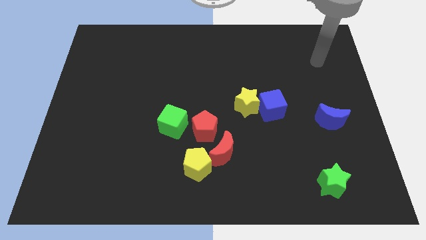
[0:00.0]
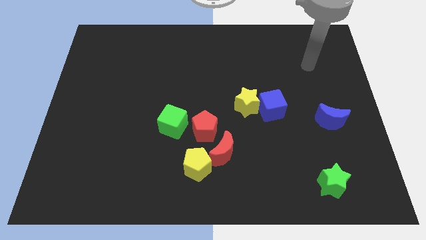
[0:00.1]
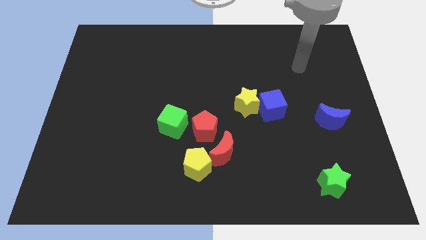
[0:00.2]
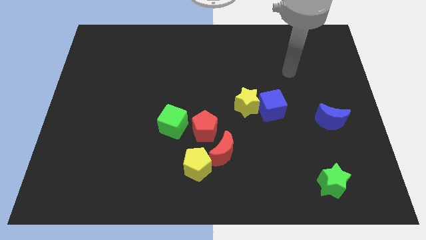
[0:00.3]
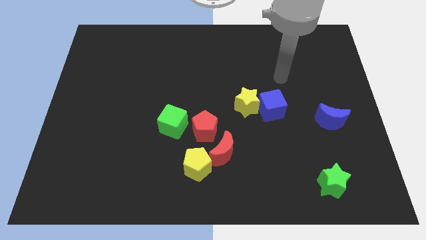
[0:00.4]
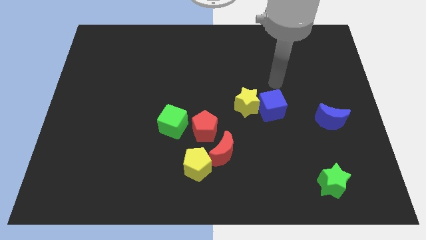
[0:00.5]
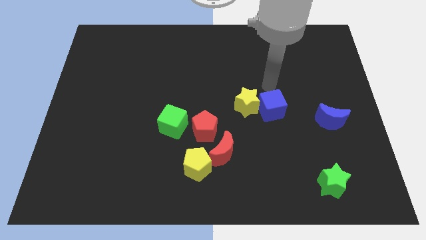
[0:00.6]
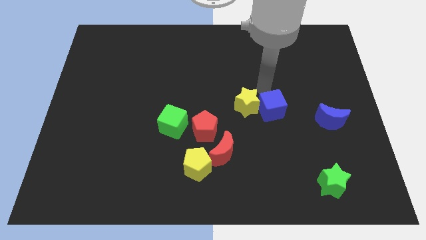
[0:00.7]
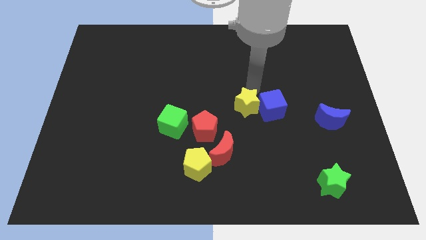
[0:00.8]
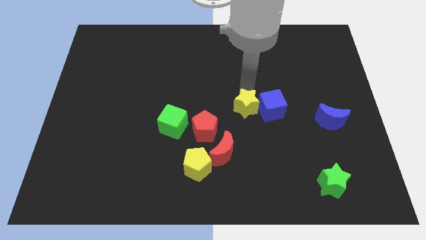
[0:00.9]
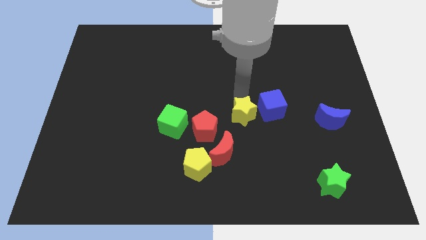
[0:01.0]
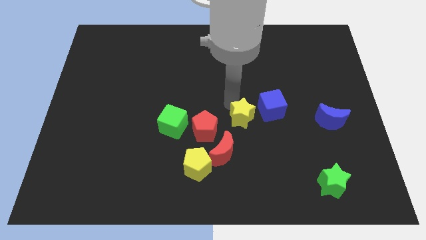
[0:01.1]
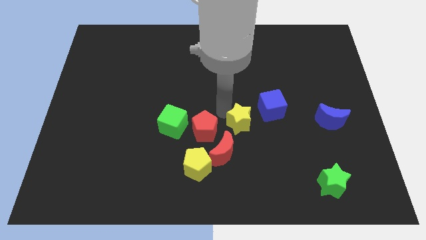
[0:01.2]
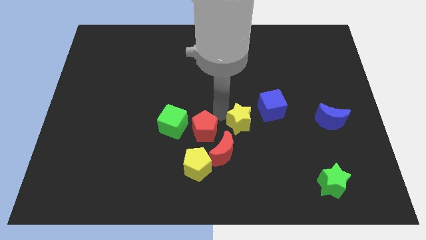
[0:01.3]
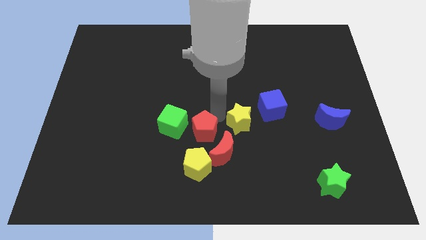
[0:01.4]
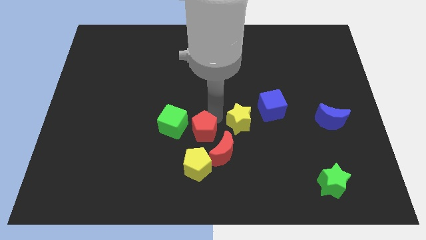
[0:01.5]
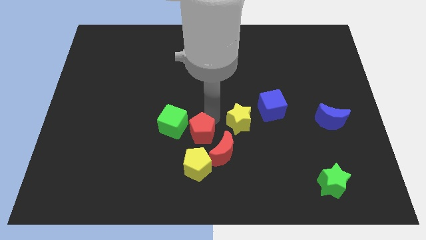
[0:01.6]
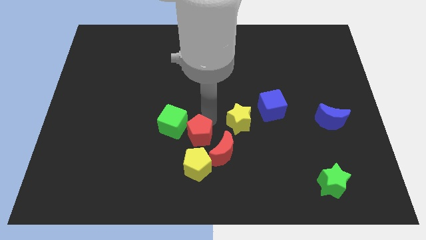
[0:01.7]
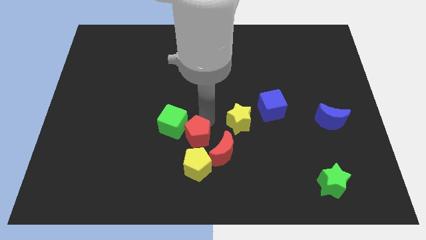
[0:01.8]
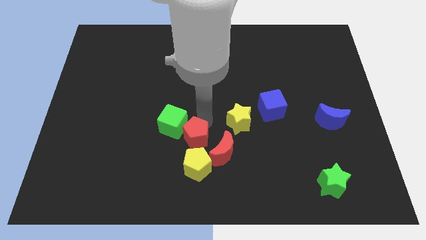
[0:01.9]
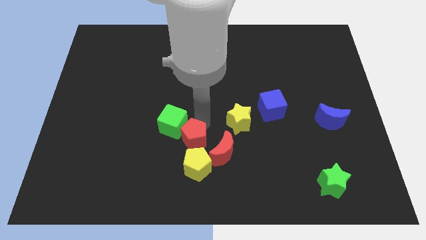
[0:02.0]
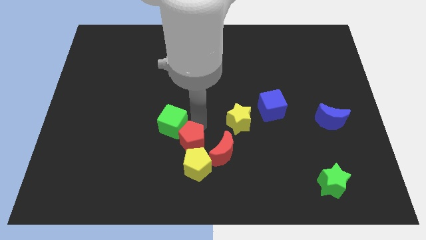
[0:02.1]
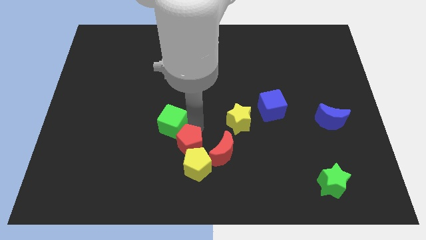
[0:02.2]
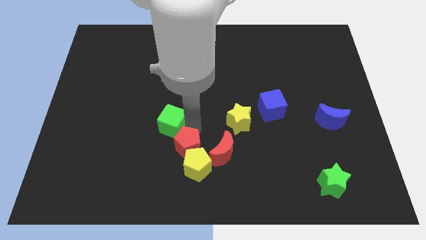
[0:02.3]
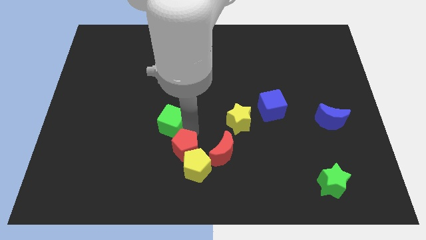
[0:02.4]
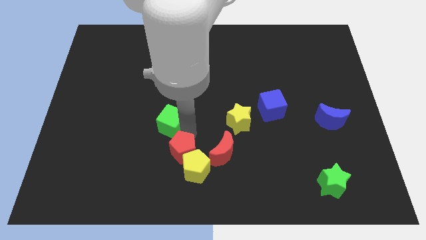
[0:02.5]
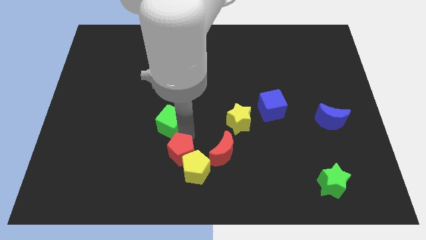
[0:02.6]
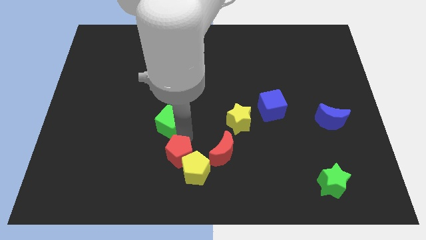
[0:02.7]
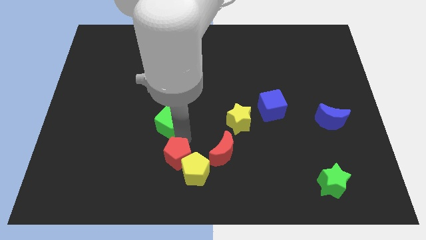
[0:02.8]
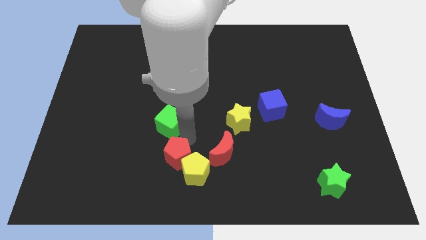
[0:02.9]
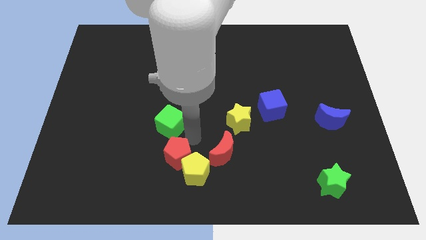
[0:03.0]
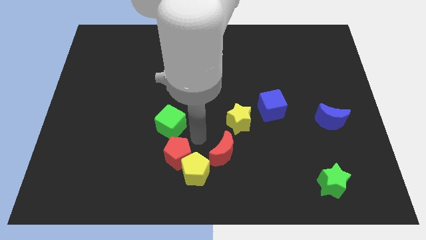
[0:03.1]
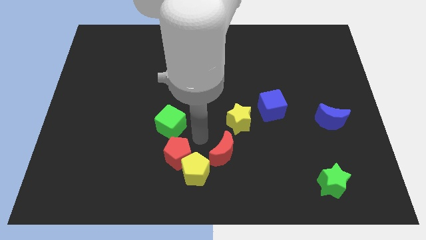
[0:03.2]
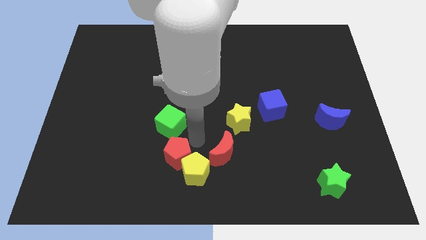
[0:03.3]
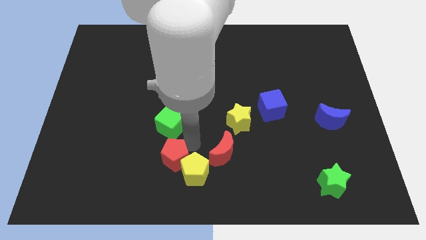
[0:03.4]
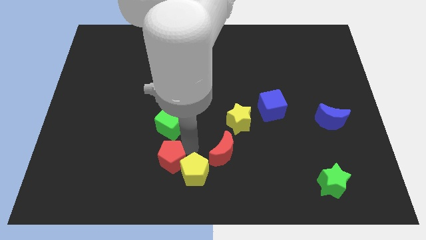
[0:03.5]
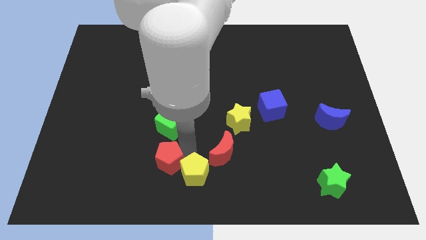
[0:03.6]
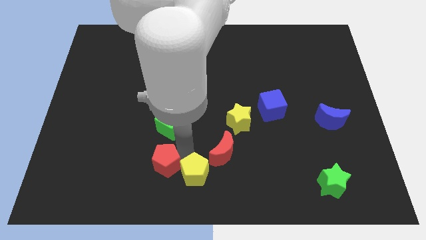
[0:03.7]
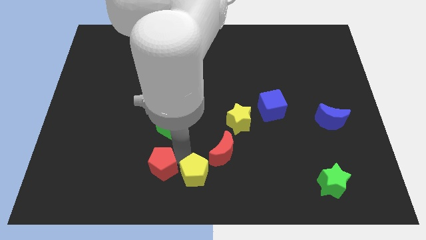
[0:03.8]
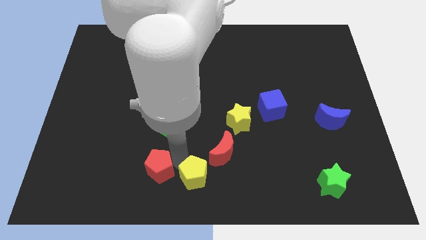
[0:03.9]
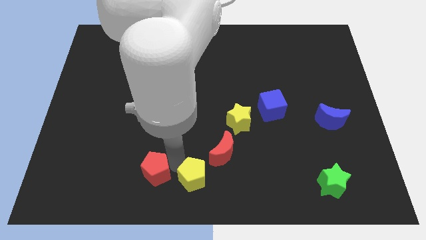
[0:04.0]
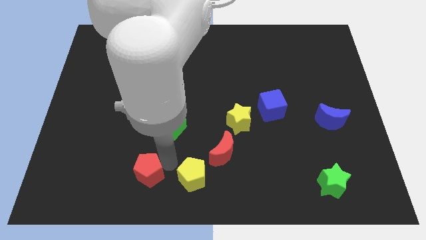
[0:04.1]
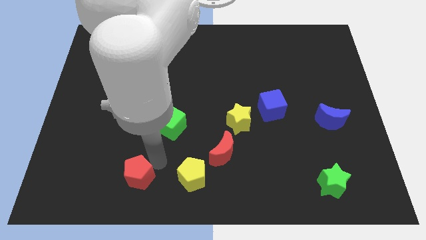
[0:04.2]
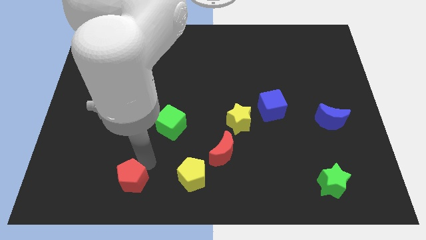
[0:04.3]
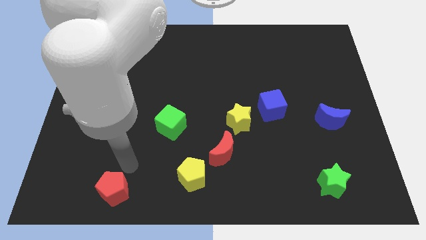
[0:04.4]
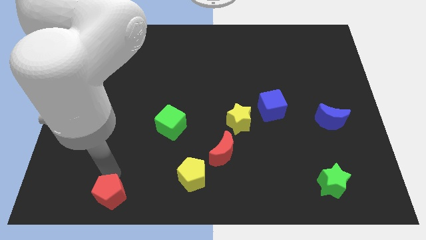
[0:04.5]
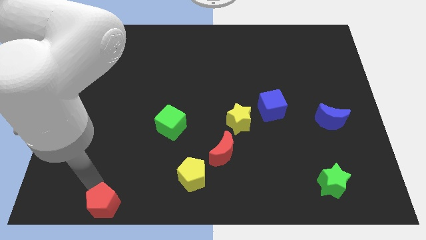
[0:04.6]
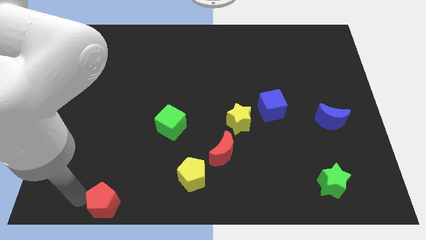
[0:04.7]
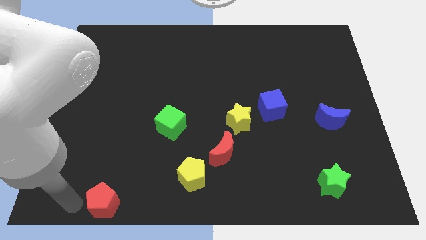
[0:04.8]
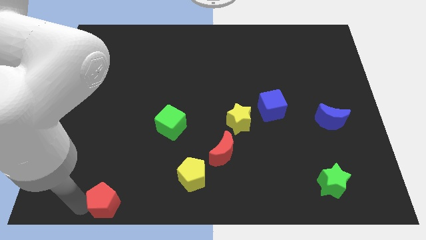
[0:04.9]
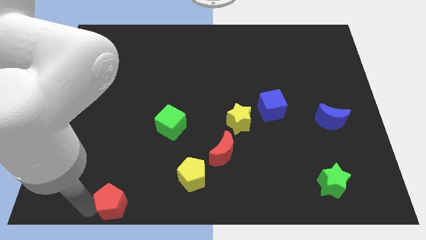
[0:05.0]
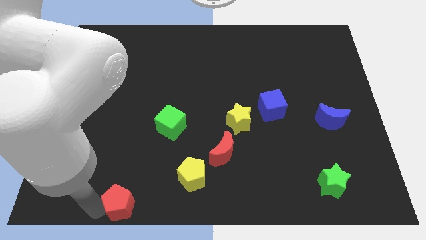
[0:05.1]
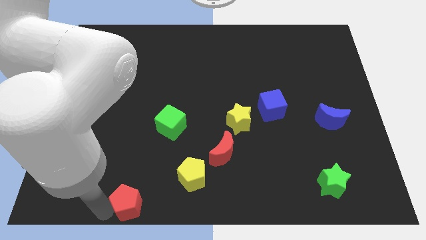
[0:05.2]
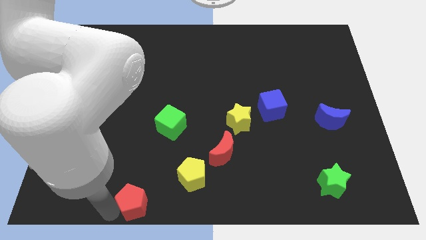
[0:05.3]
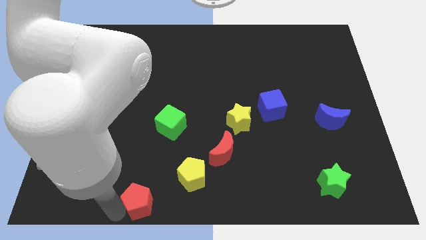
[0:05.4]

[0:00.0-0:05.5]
push the red pentagon to the bottom side
